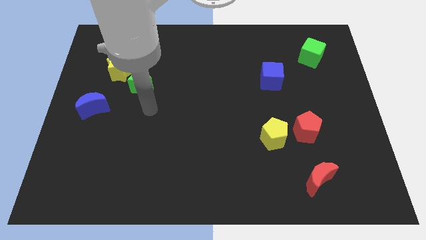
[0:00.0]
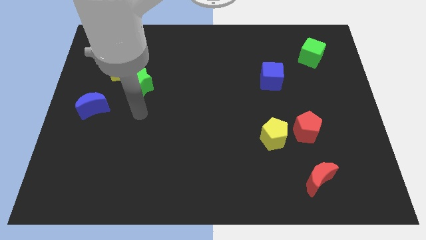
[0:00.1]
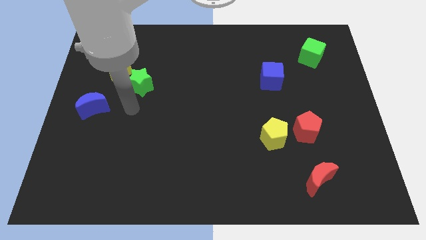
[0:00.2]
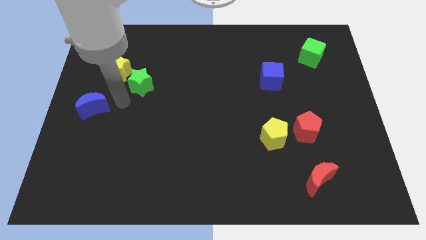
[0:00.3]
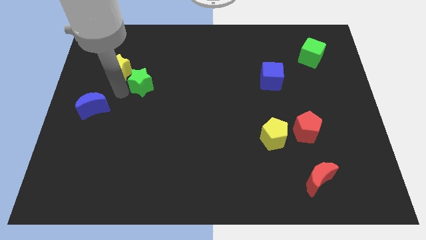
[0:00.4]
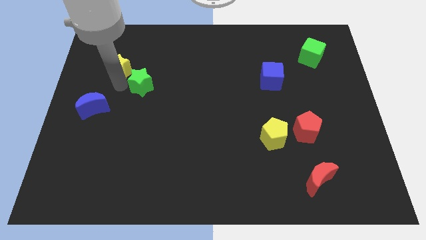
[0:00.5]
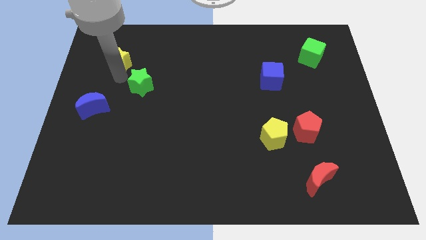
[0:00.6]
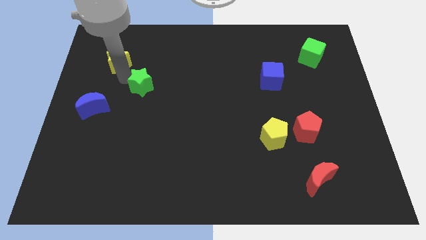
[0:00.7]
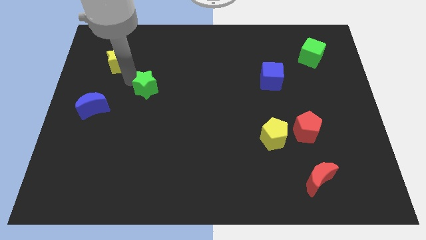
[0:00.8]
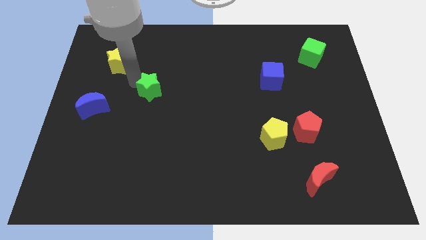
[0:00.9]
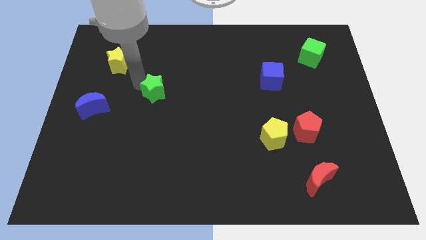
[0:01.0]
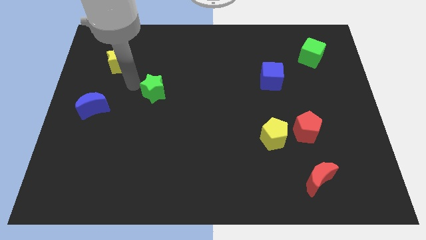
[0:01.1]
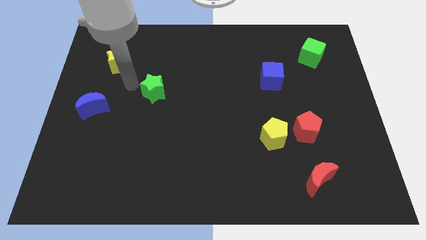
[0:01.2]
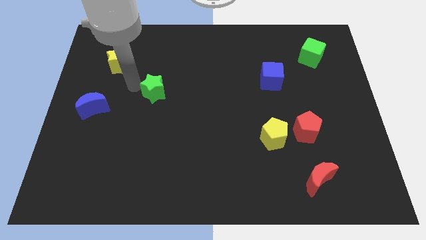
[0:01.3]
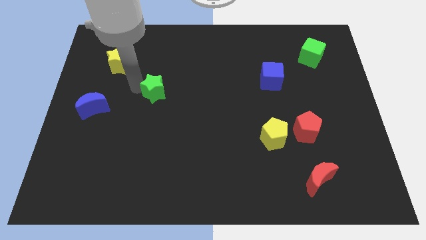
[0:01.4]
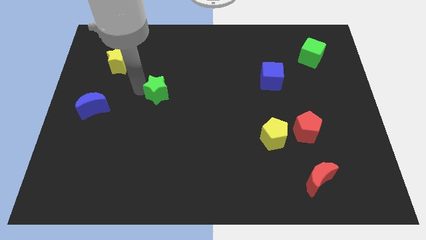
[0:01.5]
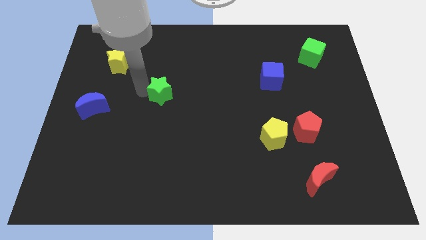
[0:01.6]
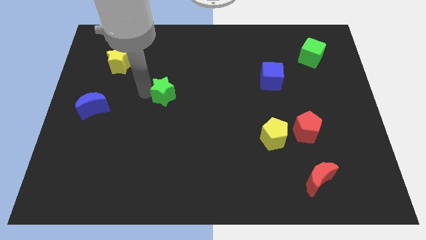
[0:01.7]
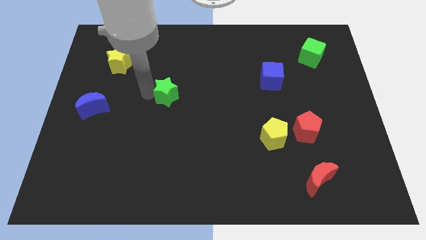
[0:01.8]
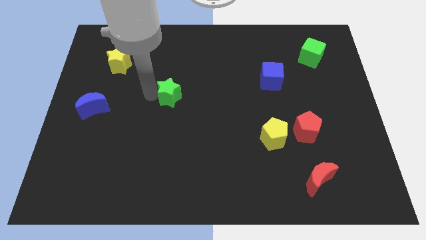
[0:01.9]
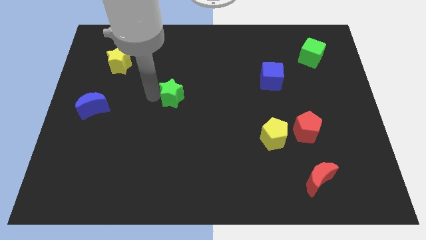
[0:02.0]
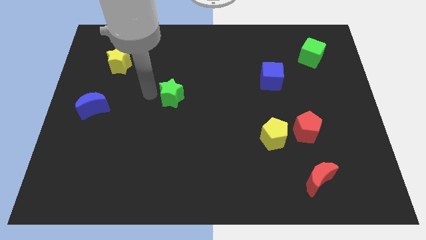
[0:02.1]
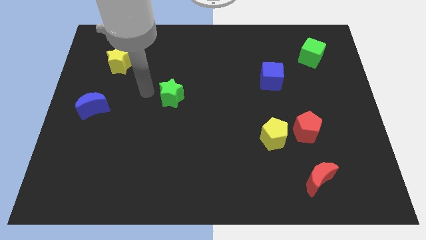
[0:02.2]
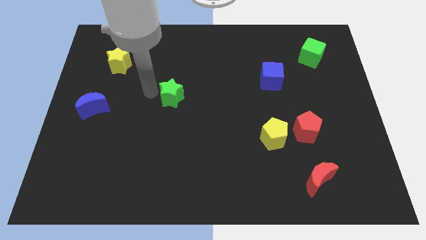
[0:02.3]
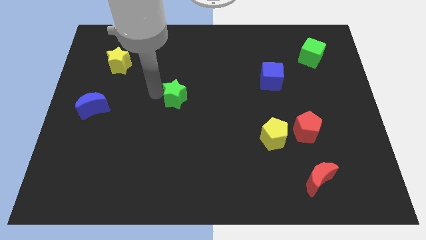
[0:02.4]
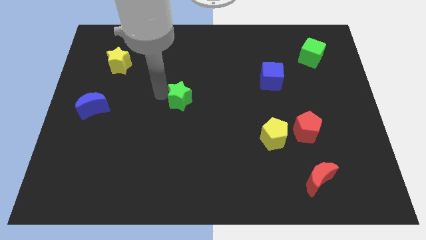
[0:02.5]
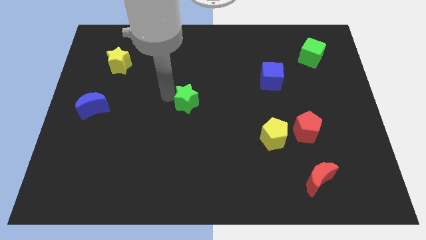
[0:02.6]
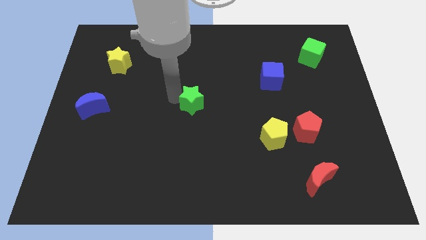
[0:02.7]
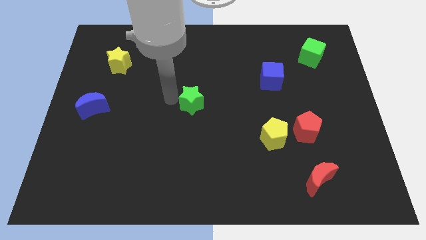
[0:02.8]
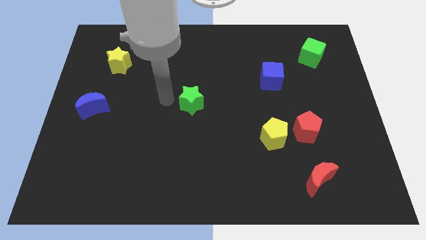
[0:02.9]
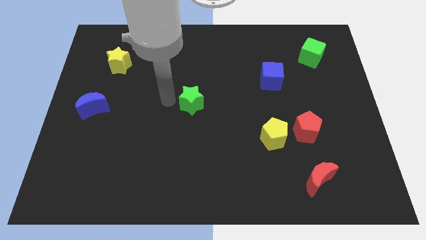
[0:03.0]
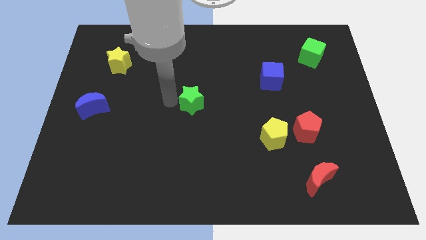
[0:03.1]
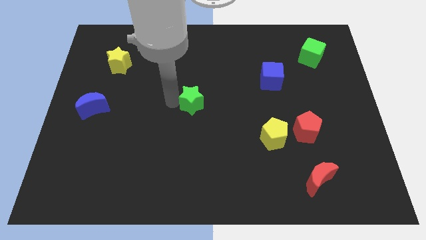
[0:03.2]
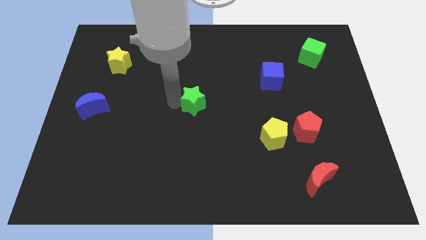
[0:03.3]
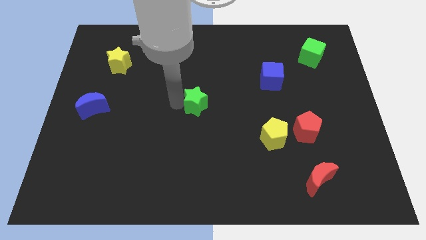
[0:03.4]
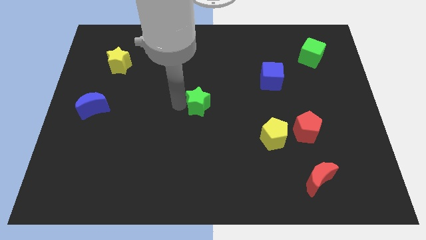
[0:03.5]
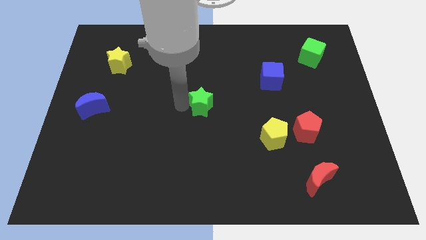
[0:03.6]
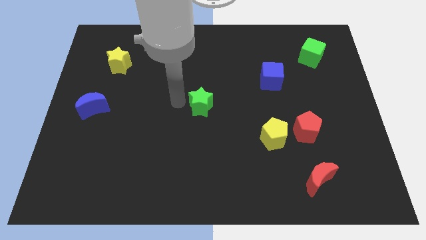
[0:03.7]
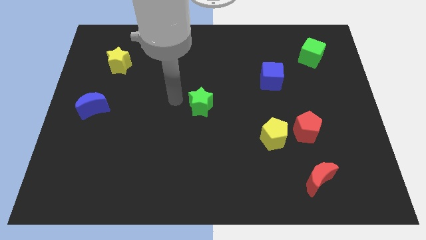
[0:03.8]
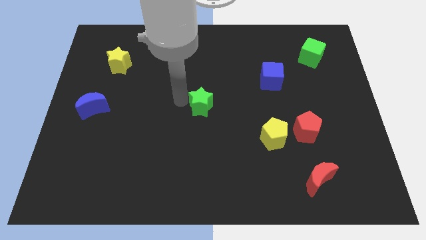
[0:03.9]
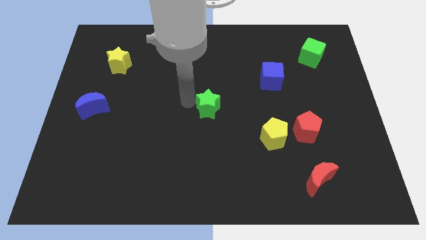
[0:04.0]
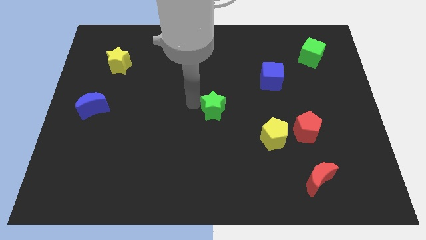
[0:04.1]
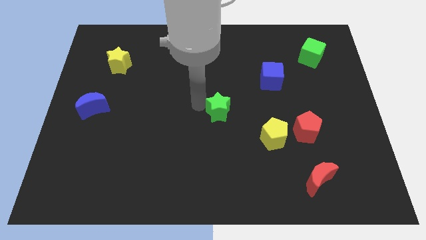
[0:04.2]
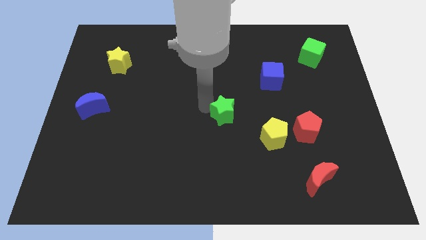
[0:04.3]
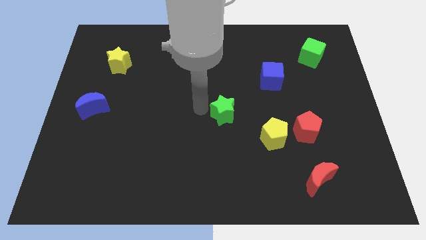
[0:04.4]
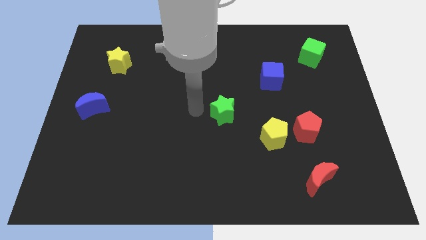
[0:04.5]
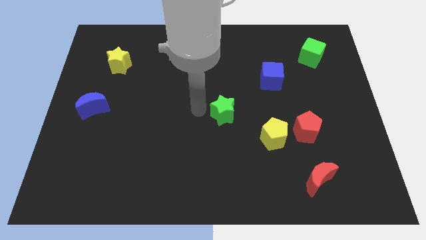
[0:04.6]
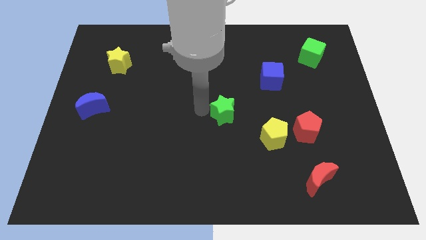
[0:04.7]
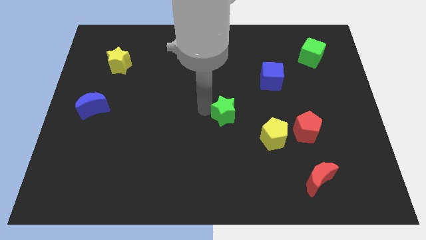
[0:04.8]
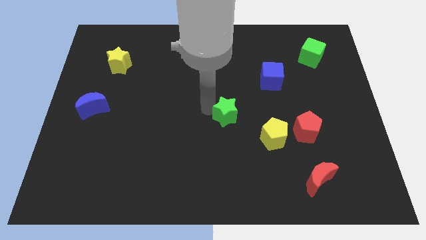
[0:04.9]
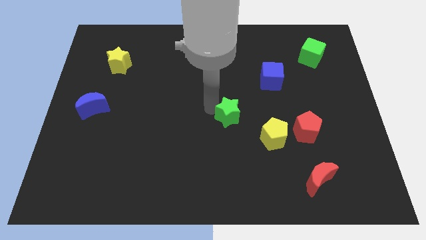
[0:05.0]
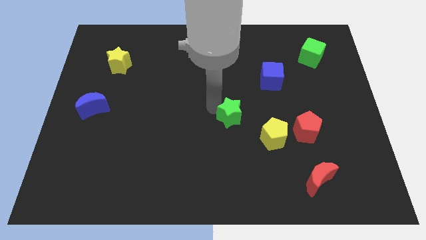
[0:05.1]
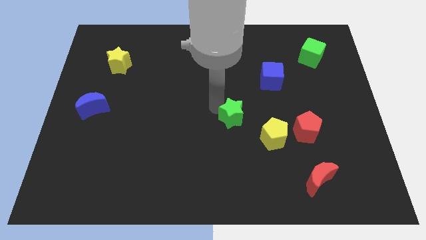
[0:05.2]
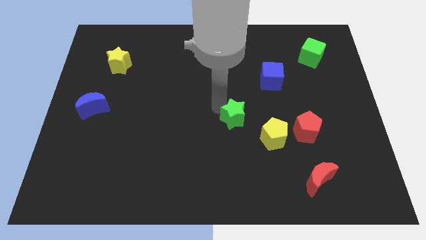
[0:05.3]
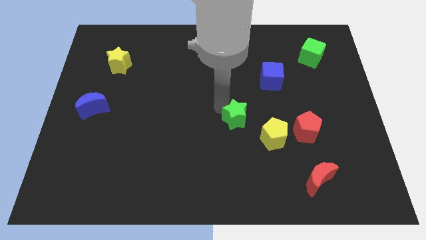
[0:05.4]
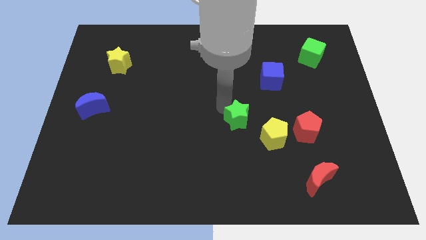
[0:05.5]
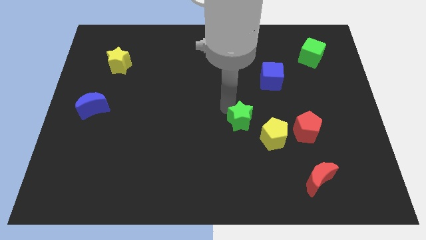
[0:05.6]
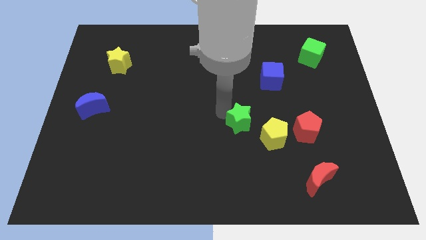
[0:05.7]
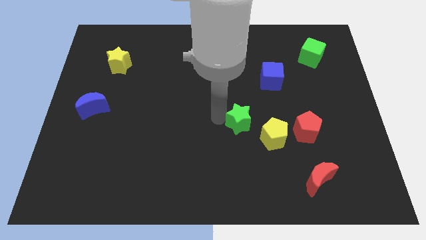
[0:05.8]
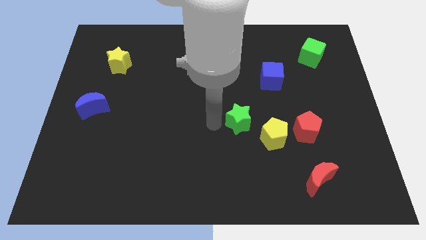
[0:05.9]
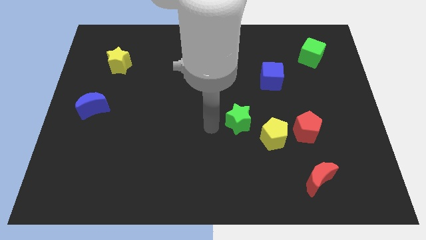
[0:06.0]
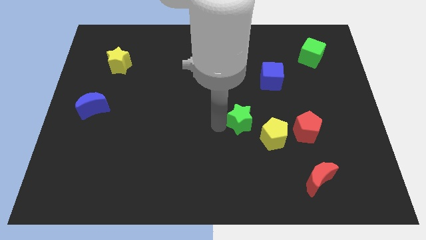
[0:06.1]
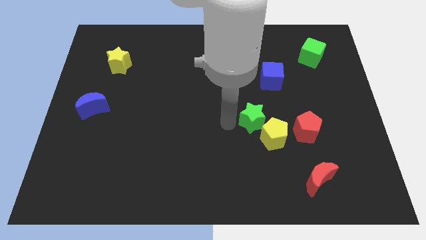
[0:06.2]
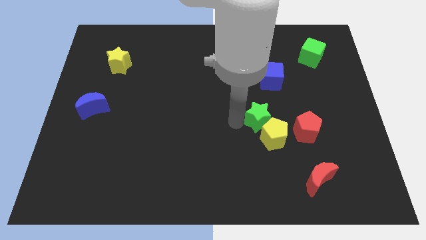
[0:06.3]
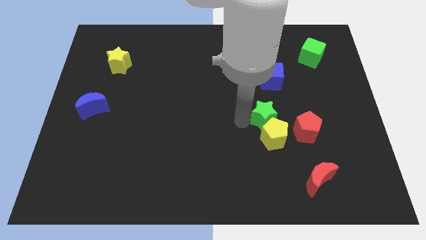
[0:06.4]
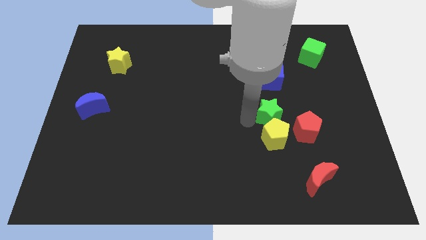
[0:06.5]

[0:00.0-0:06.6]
push the green star to the top right of the yellow pentagon

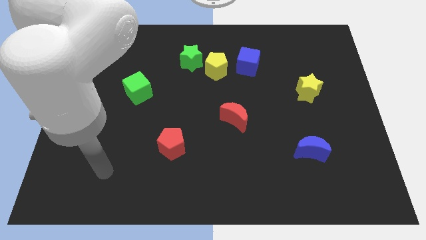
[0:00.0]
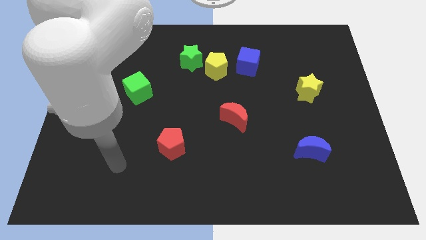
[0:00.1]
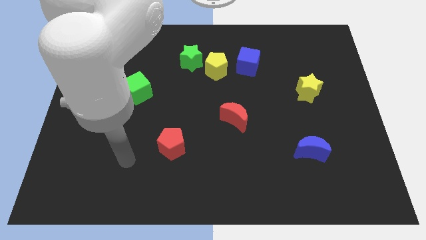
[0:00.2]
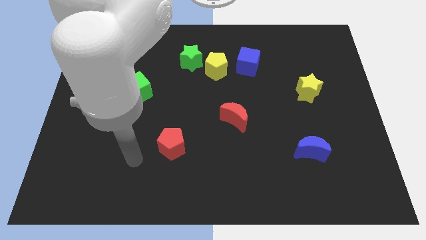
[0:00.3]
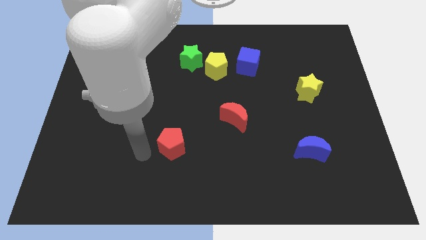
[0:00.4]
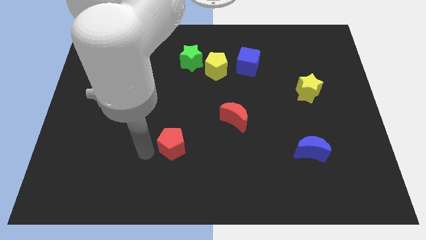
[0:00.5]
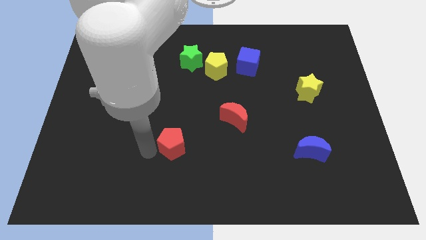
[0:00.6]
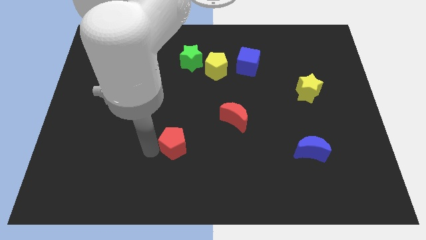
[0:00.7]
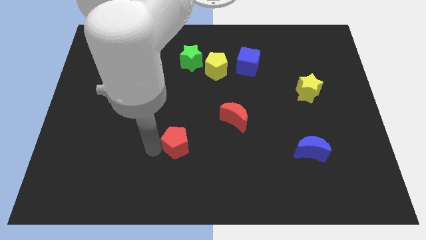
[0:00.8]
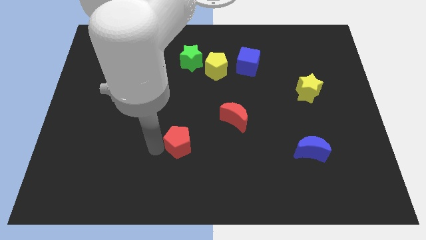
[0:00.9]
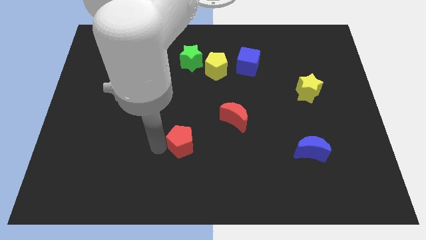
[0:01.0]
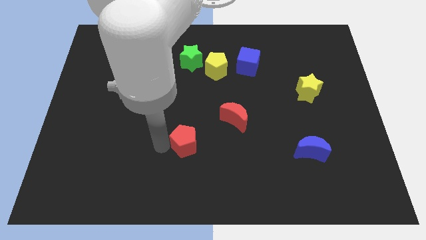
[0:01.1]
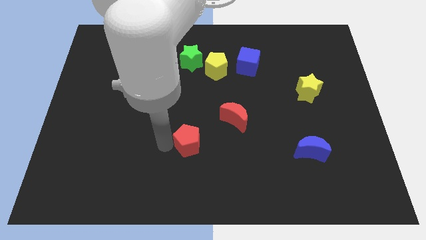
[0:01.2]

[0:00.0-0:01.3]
put the red pentagon to the bottom left of the red moon
